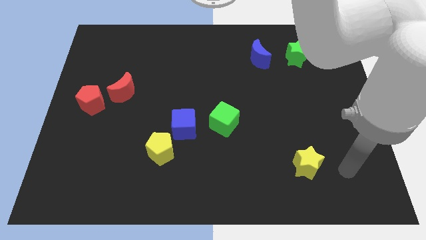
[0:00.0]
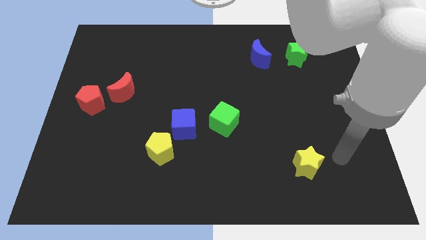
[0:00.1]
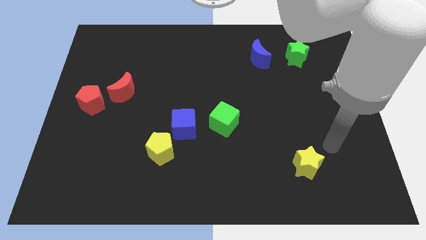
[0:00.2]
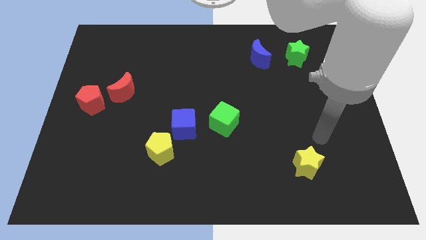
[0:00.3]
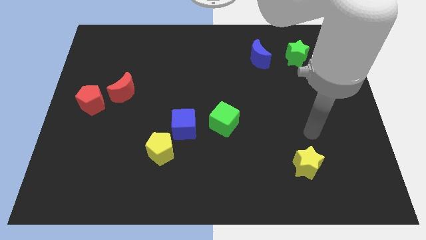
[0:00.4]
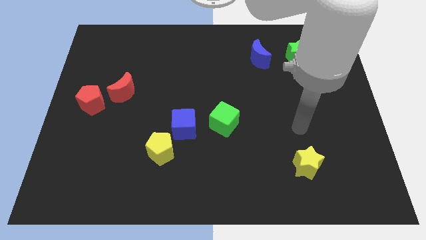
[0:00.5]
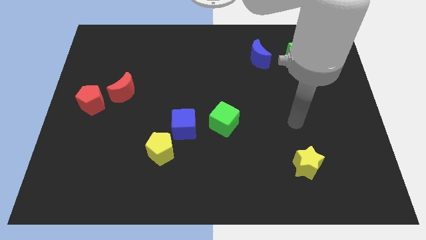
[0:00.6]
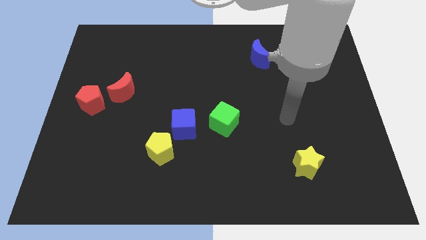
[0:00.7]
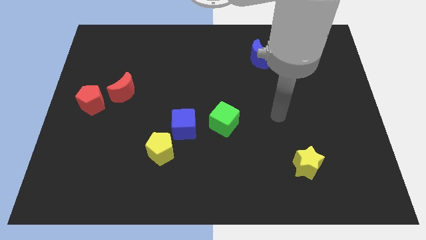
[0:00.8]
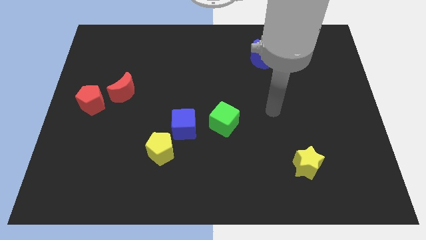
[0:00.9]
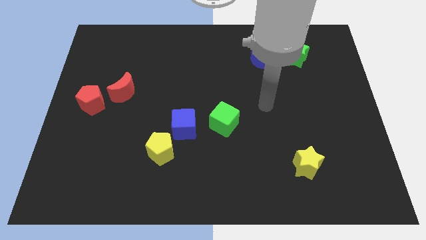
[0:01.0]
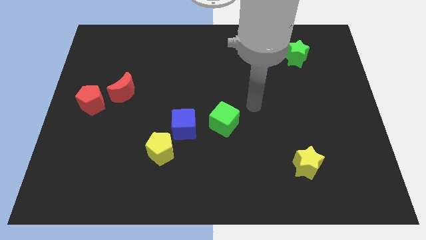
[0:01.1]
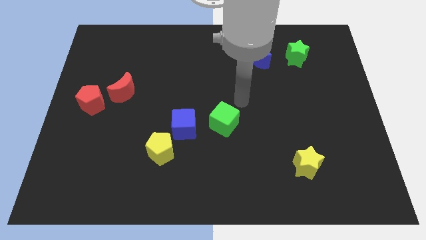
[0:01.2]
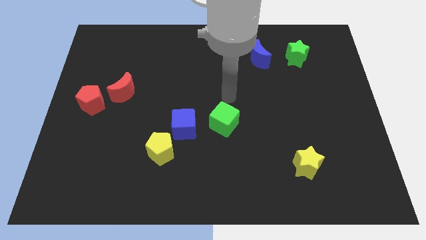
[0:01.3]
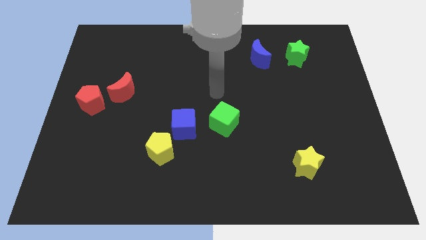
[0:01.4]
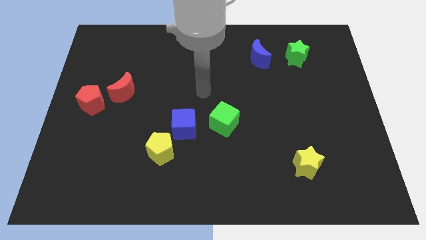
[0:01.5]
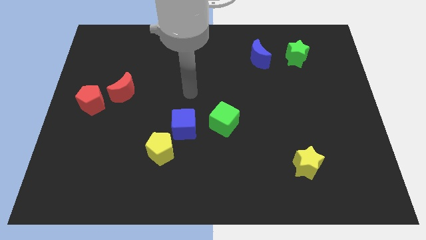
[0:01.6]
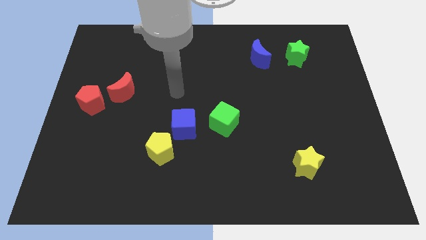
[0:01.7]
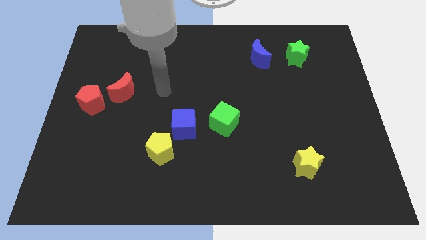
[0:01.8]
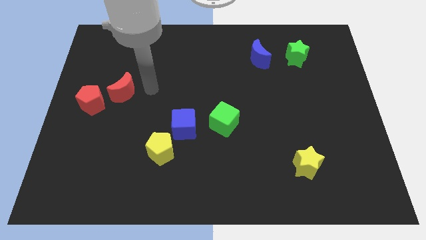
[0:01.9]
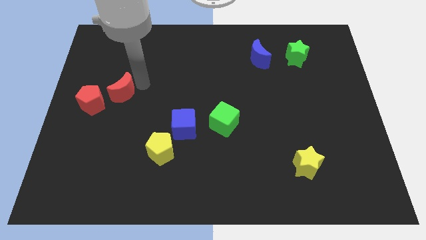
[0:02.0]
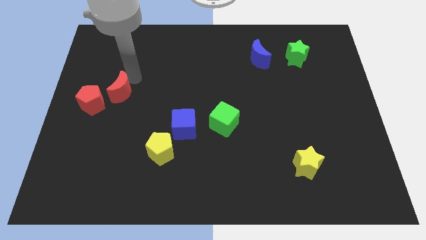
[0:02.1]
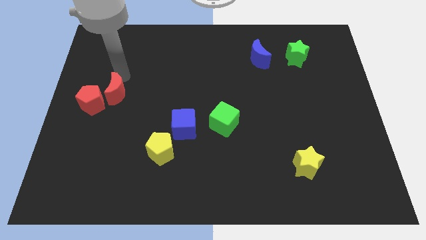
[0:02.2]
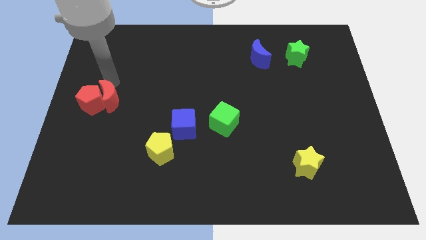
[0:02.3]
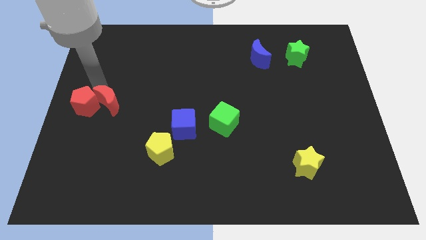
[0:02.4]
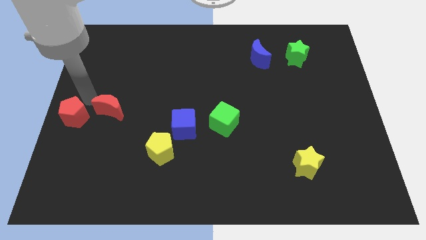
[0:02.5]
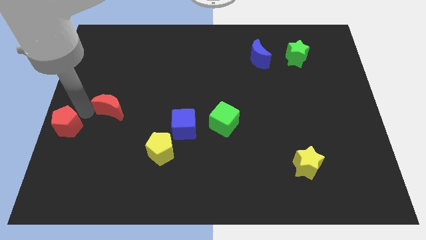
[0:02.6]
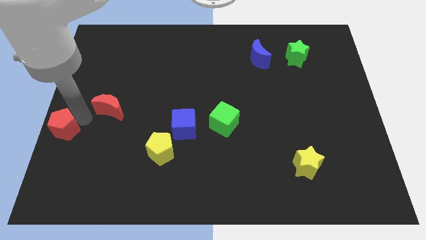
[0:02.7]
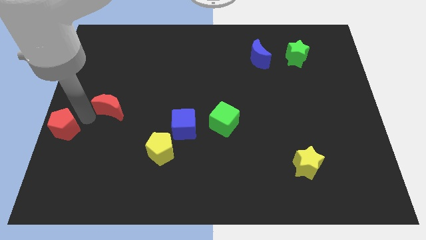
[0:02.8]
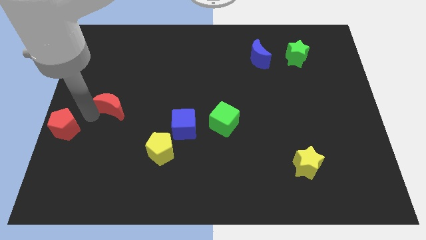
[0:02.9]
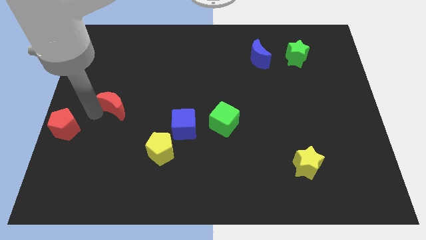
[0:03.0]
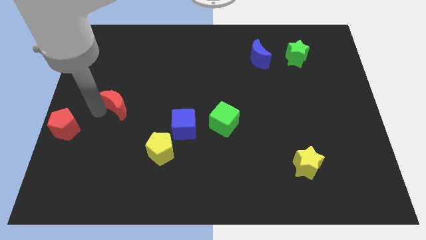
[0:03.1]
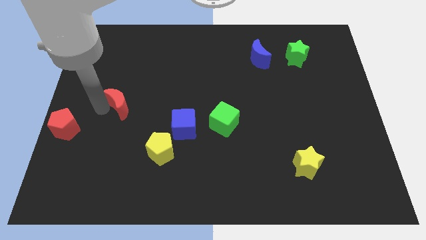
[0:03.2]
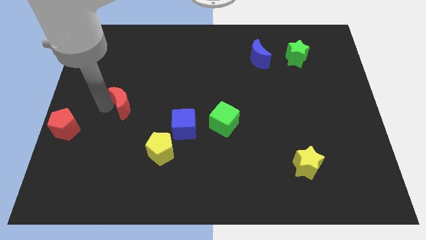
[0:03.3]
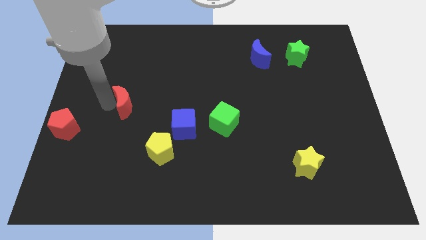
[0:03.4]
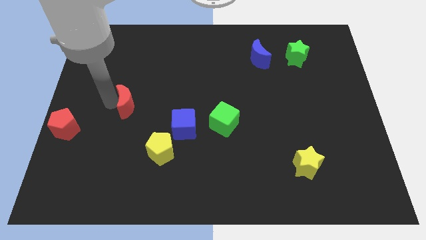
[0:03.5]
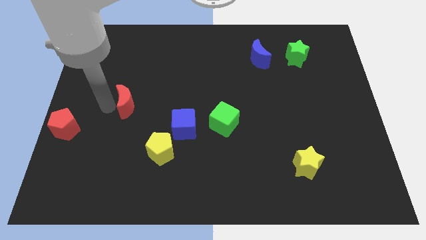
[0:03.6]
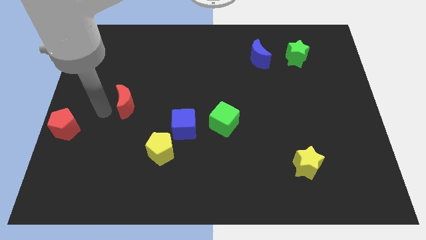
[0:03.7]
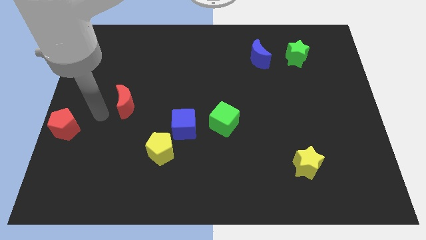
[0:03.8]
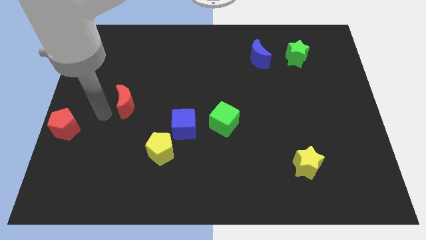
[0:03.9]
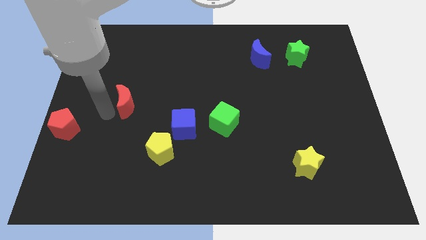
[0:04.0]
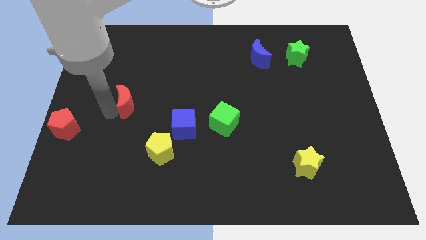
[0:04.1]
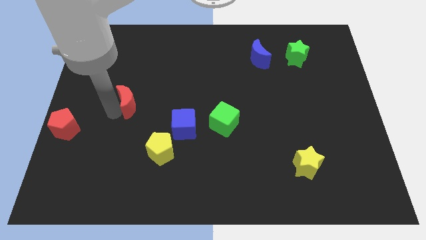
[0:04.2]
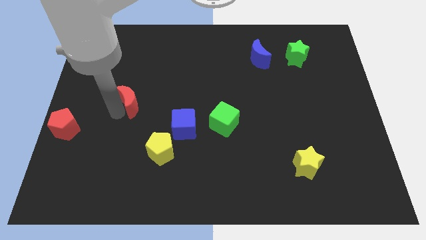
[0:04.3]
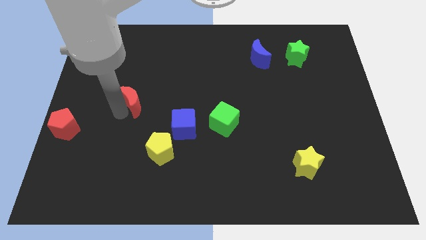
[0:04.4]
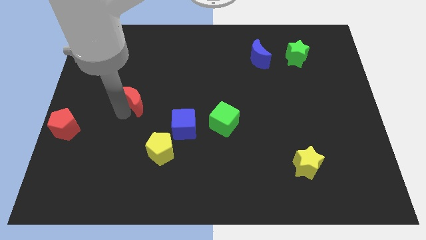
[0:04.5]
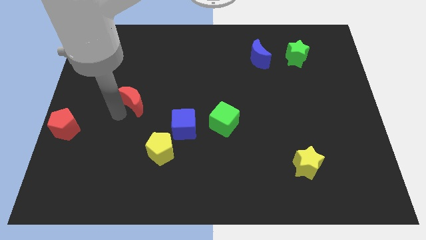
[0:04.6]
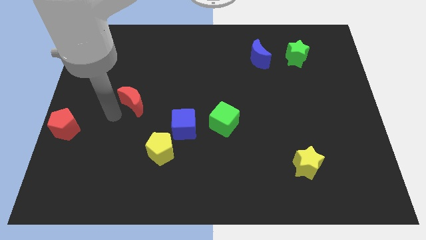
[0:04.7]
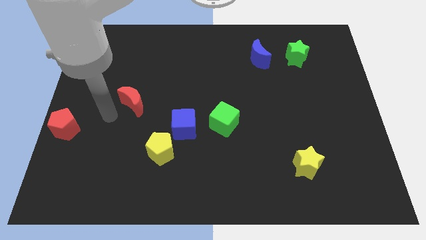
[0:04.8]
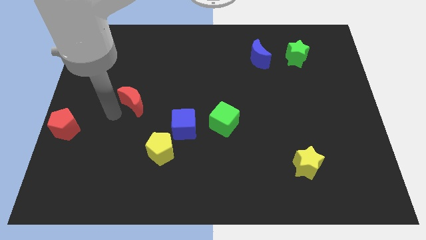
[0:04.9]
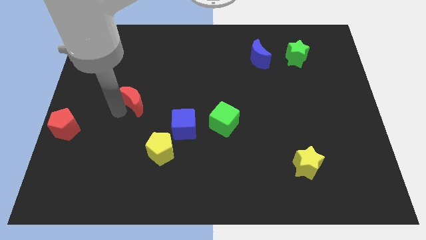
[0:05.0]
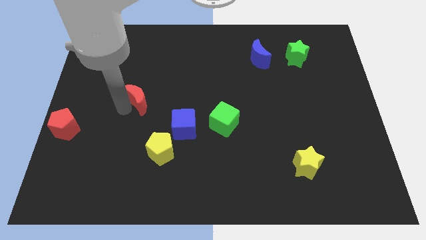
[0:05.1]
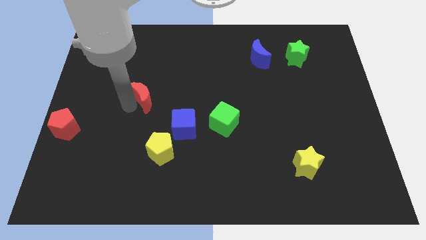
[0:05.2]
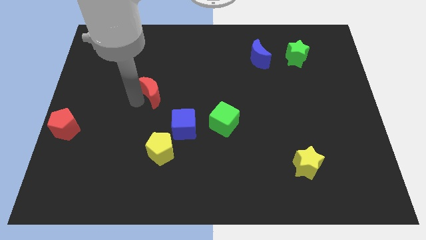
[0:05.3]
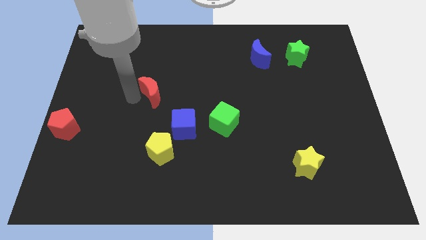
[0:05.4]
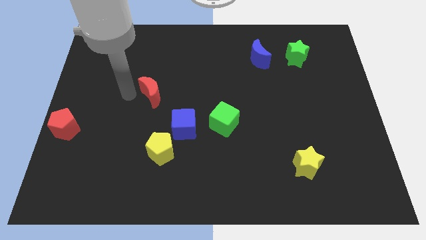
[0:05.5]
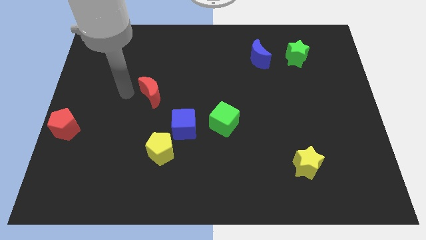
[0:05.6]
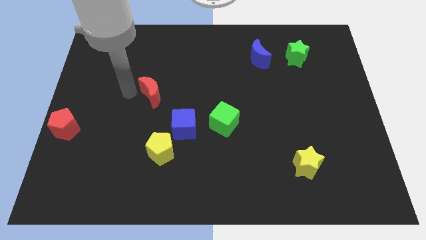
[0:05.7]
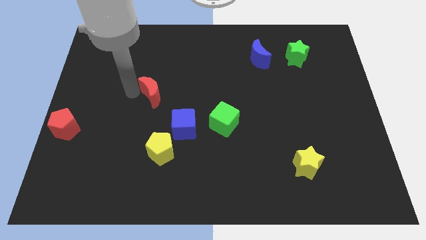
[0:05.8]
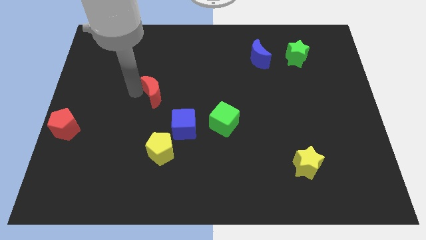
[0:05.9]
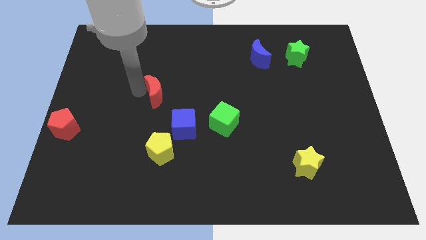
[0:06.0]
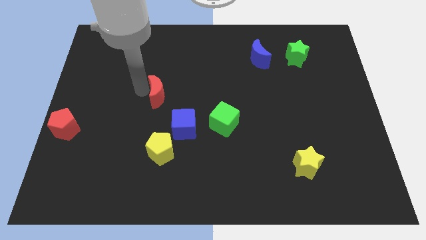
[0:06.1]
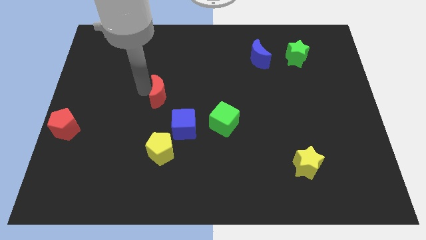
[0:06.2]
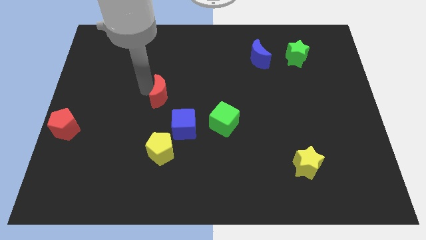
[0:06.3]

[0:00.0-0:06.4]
move the red moon to the center of the board

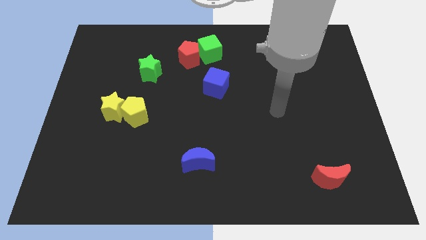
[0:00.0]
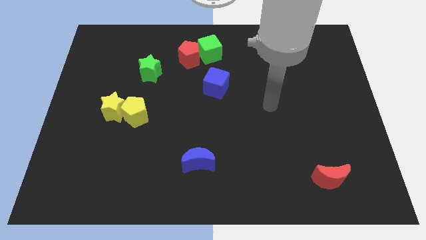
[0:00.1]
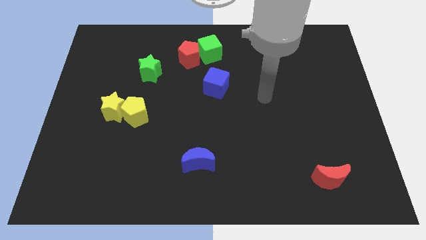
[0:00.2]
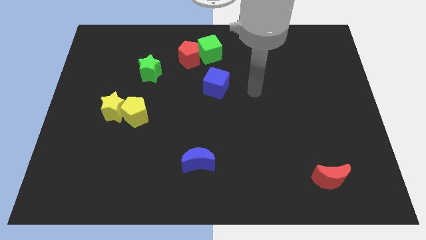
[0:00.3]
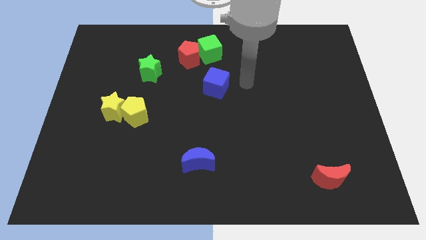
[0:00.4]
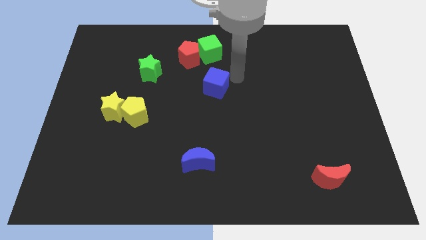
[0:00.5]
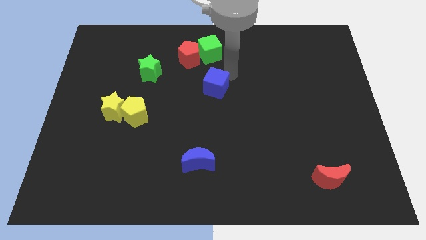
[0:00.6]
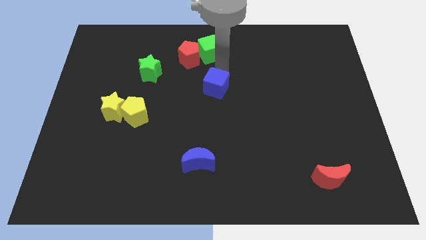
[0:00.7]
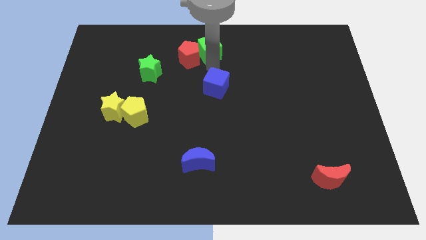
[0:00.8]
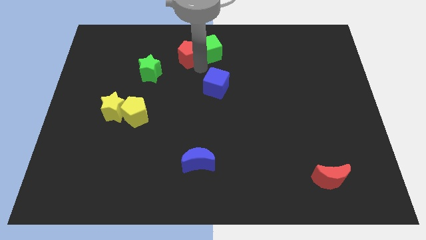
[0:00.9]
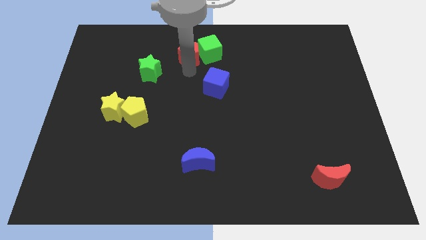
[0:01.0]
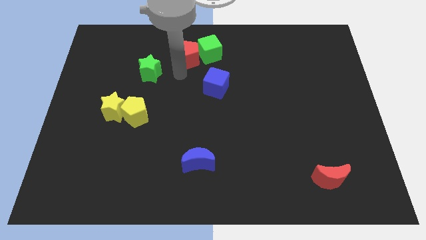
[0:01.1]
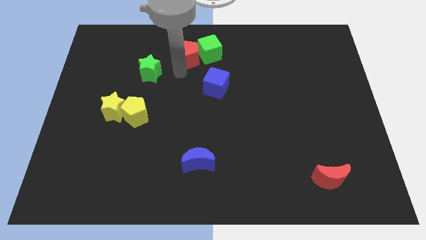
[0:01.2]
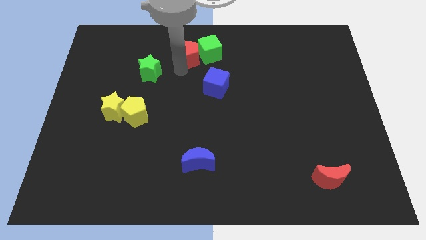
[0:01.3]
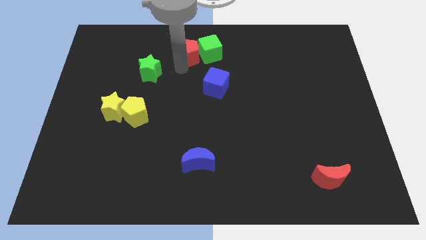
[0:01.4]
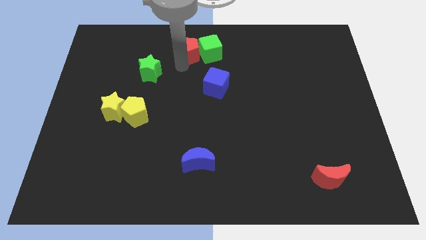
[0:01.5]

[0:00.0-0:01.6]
slide the red pentagon to the towards your base
